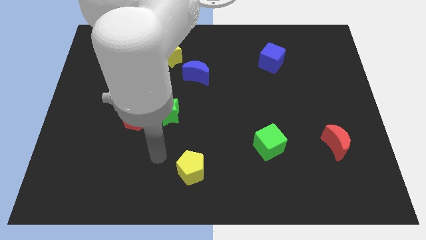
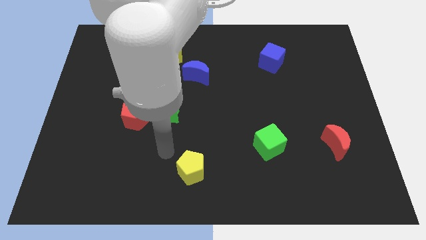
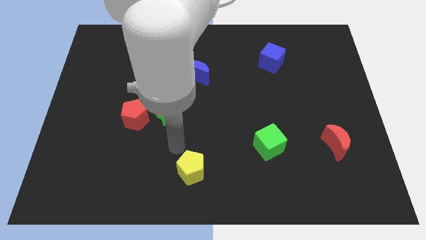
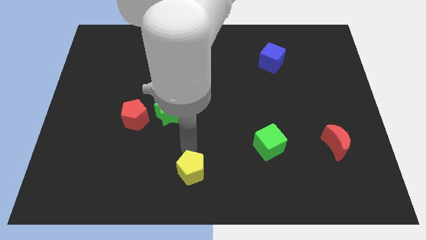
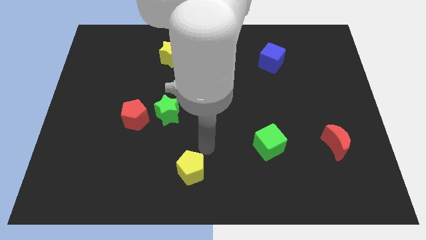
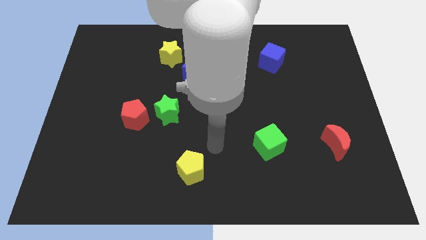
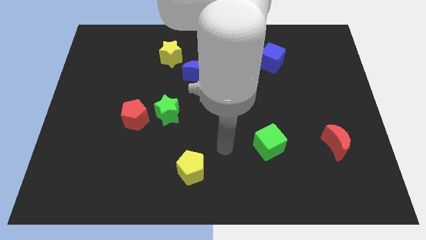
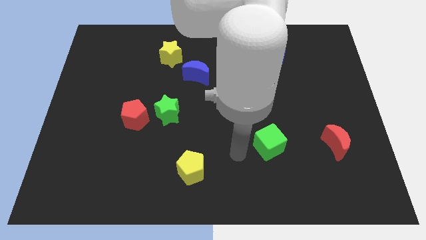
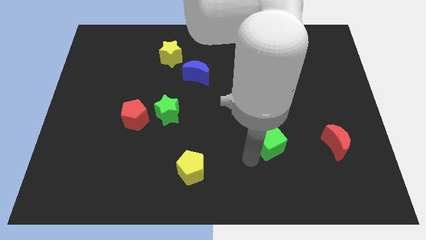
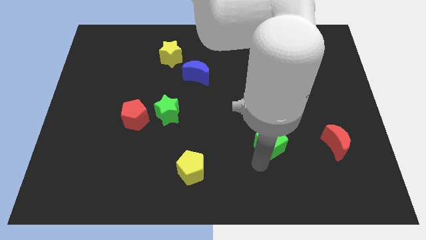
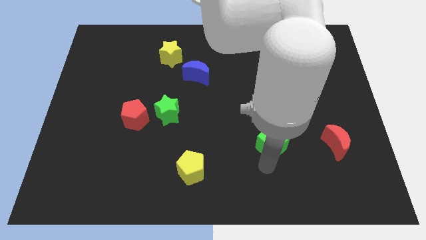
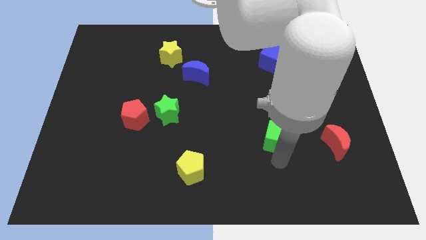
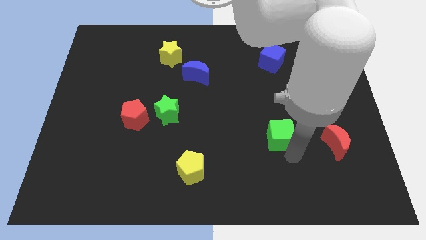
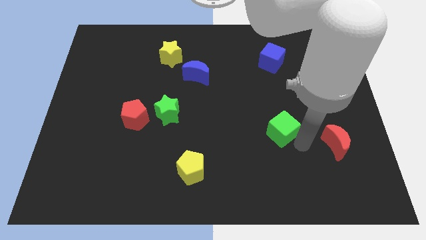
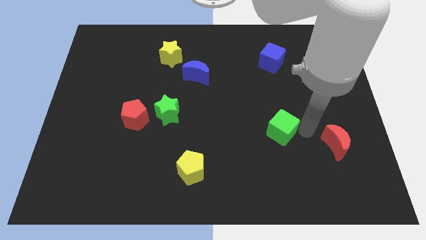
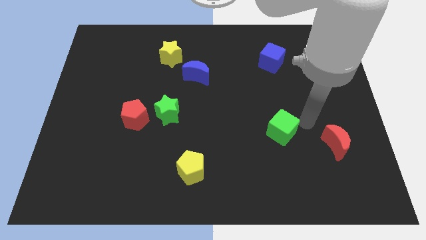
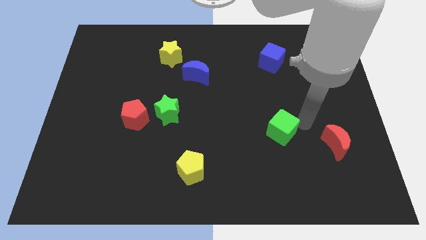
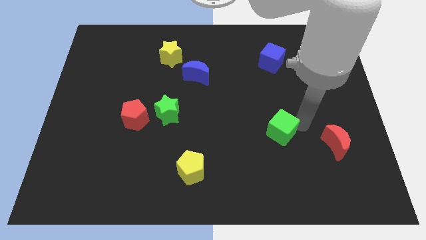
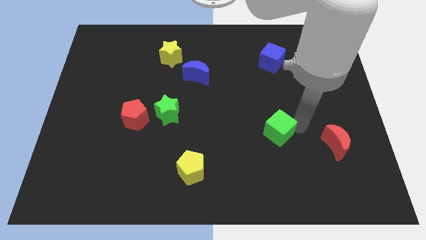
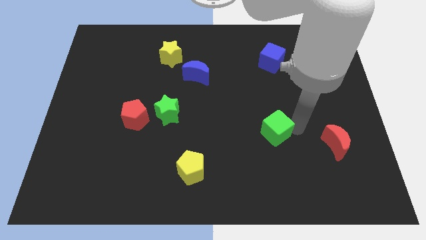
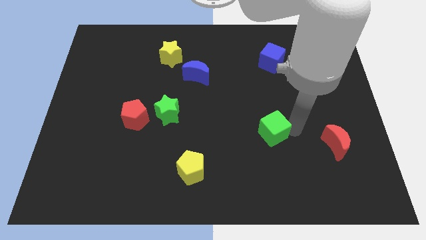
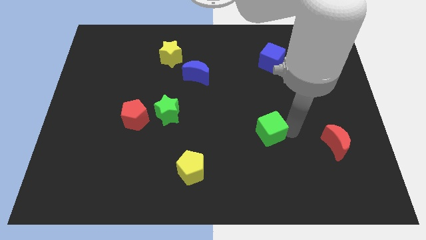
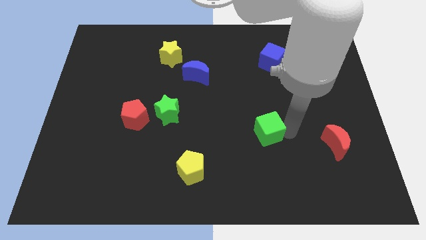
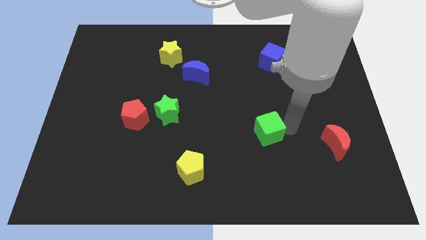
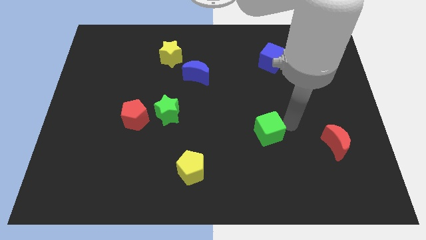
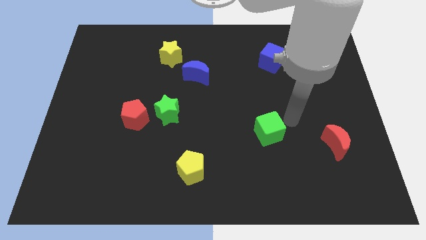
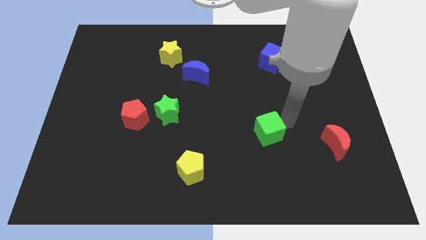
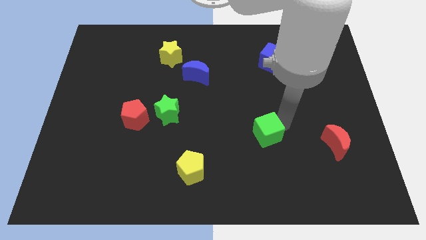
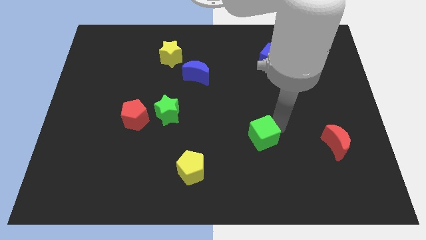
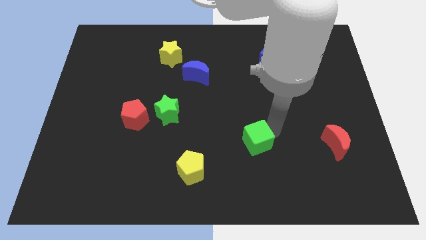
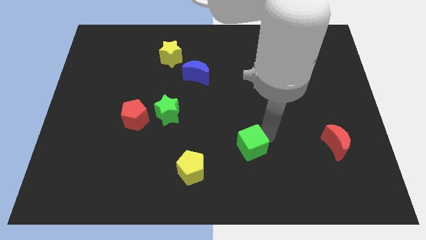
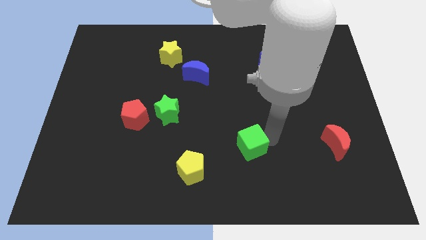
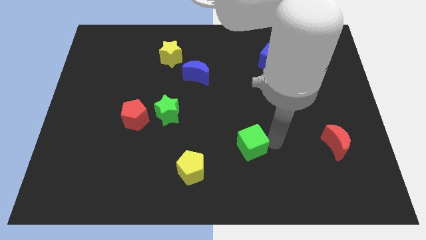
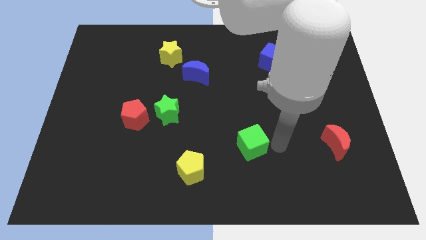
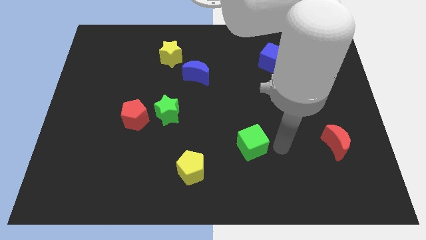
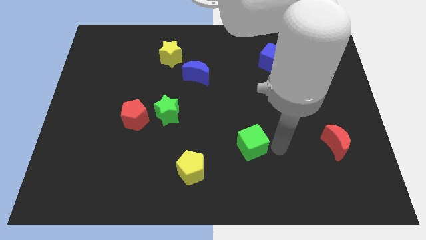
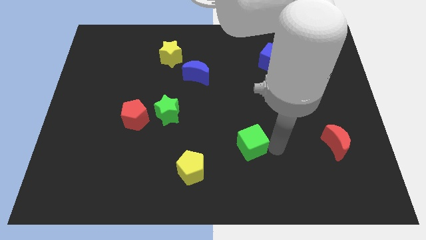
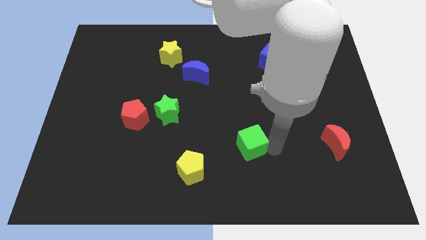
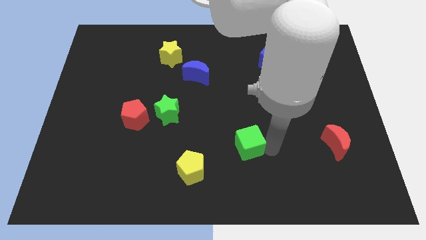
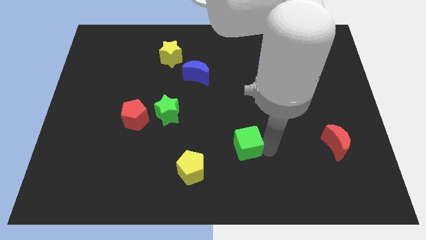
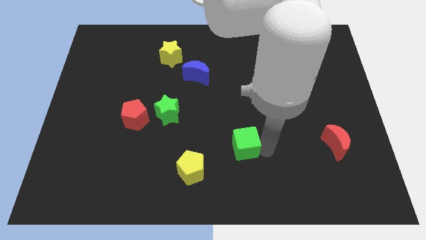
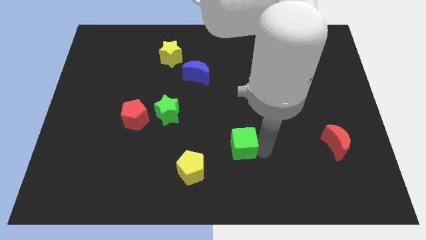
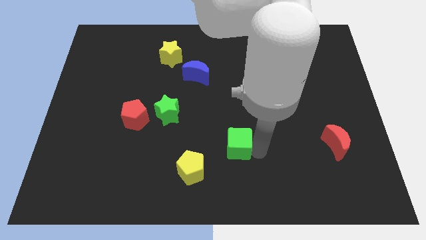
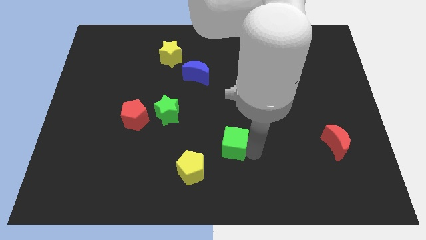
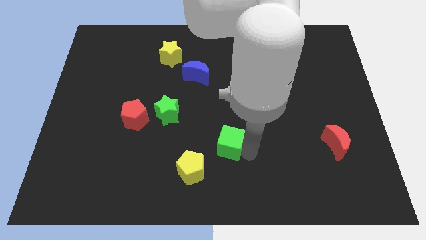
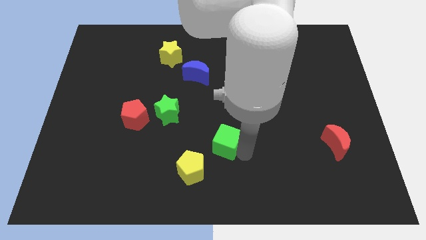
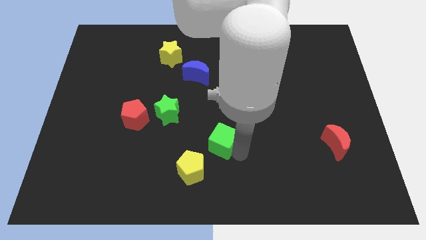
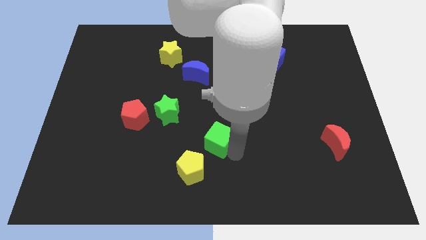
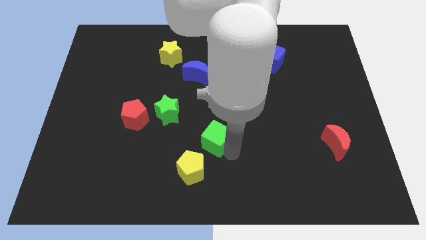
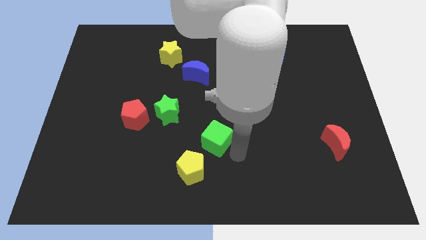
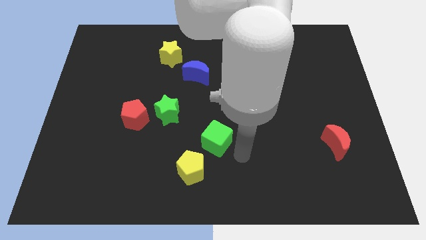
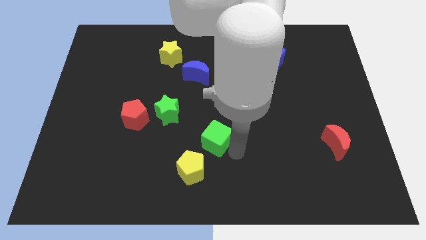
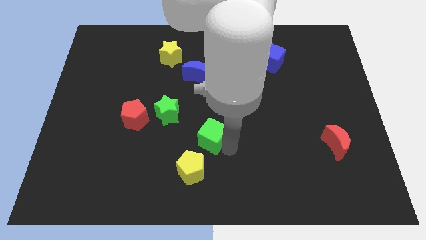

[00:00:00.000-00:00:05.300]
push the green cube to the top side of the yellow pentagon

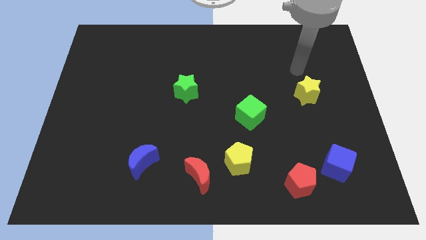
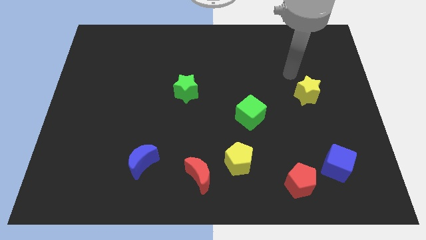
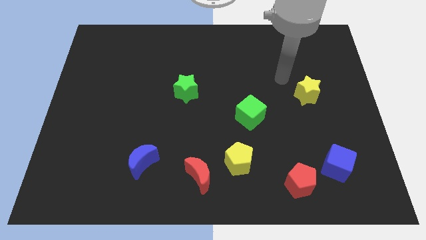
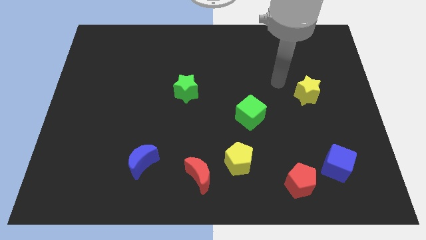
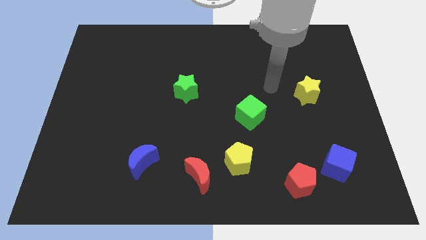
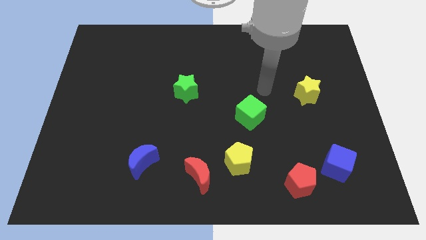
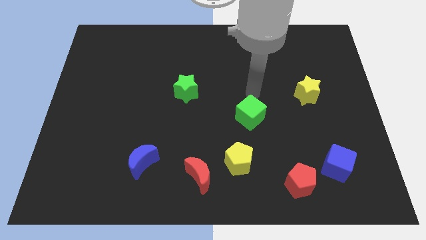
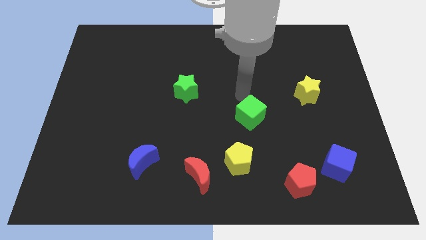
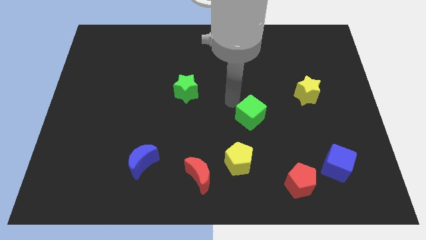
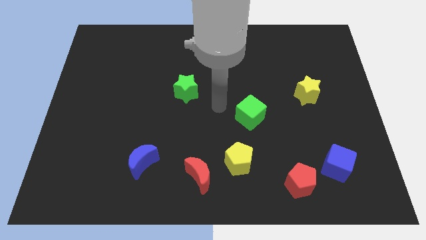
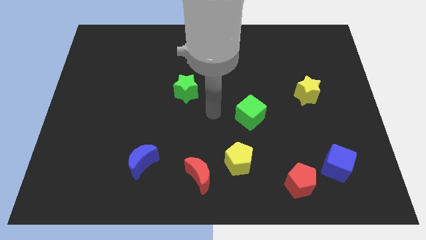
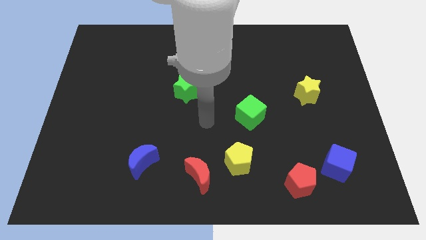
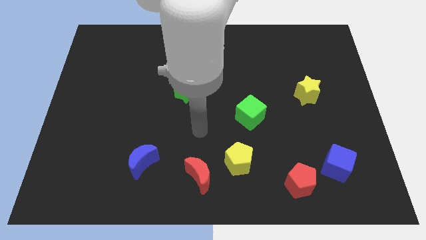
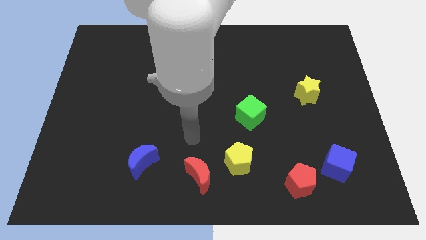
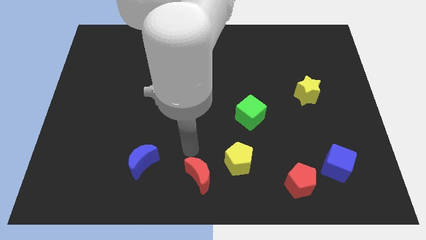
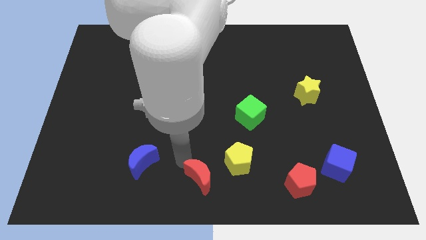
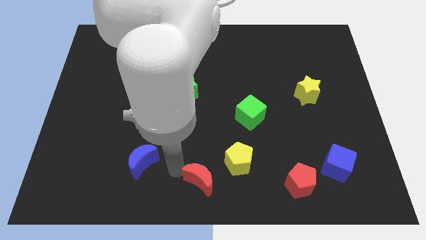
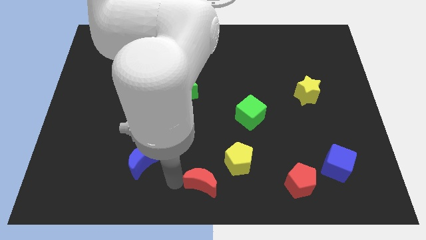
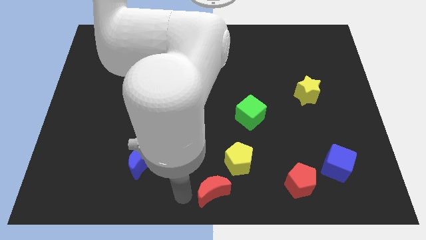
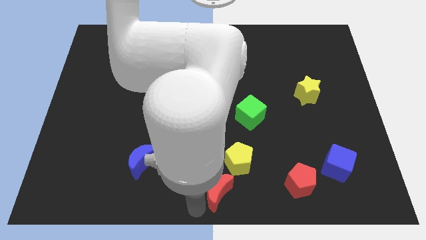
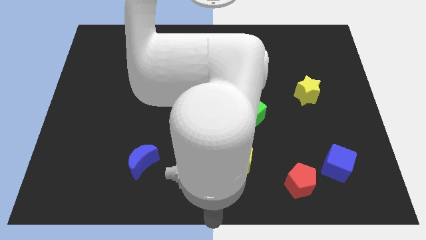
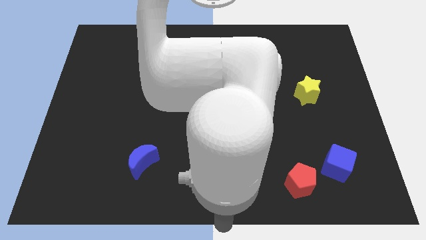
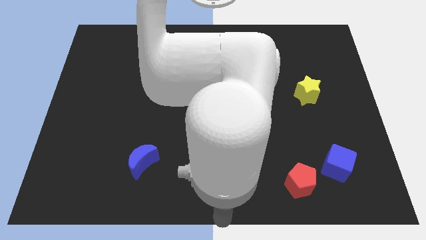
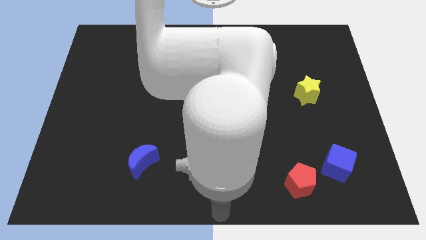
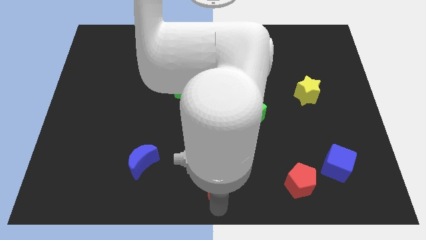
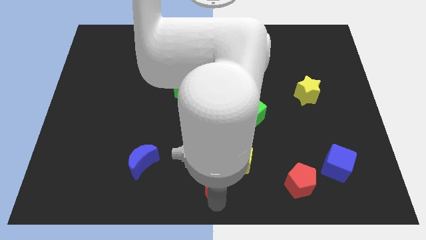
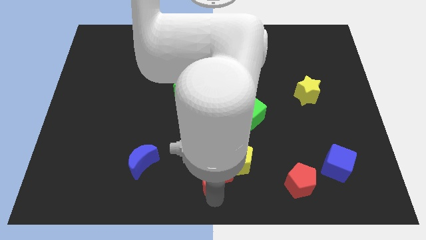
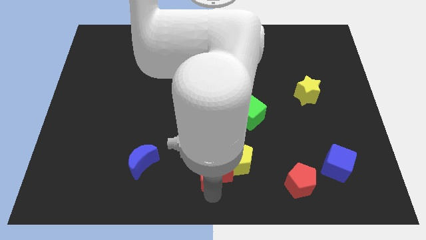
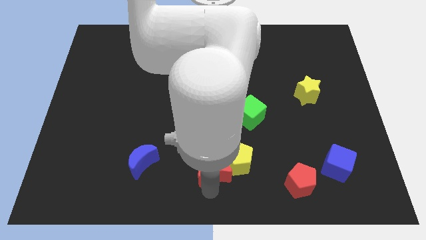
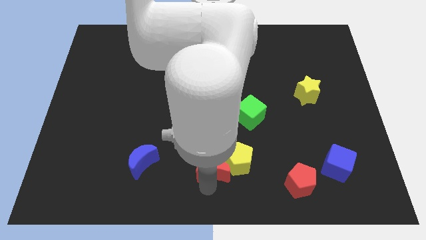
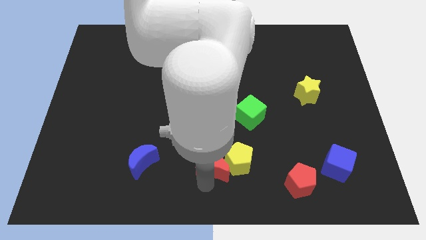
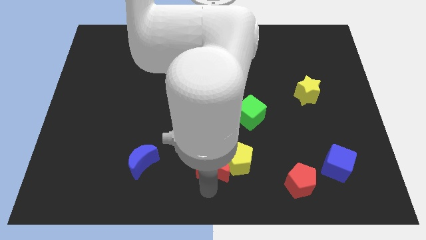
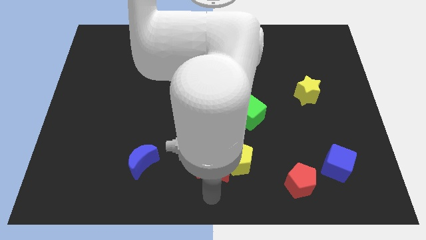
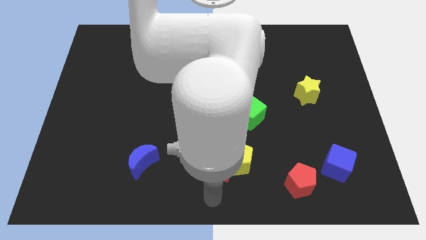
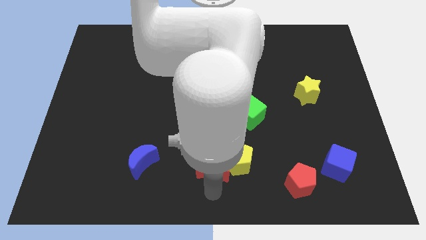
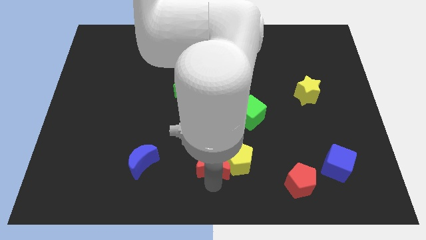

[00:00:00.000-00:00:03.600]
push the red moon diagonally up and to the left of the yellow pentagon
